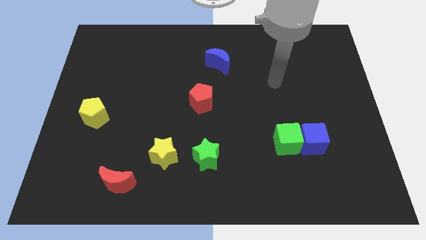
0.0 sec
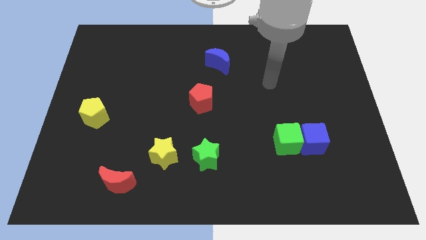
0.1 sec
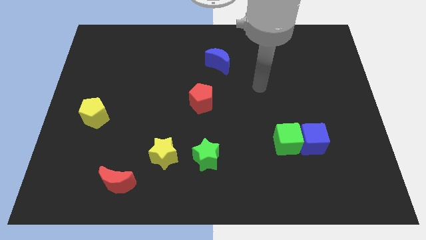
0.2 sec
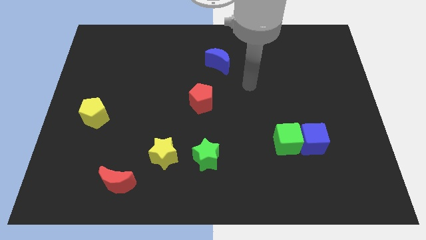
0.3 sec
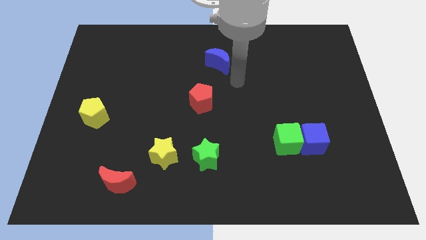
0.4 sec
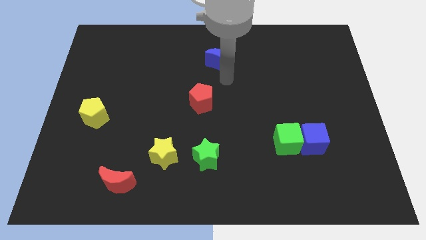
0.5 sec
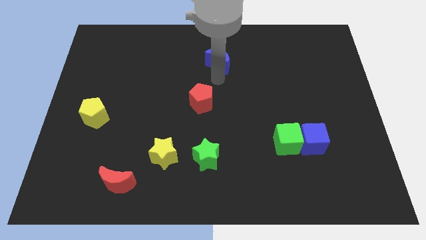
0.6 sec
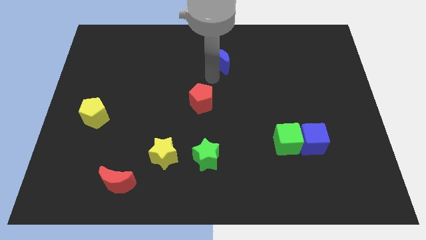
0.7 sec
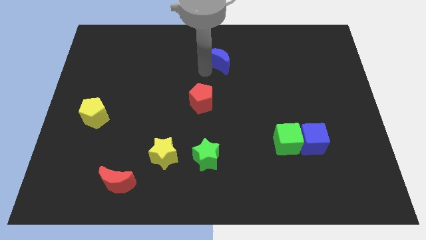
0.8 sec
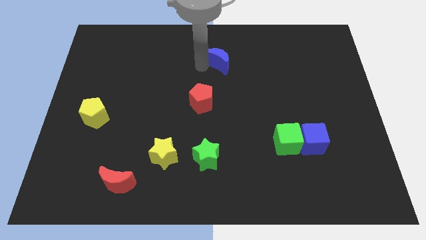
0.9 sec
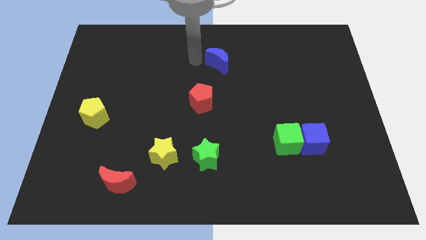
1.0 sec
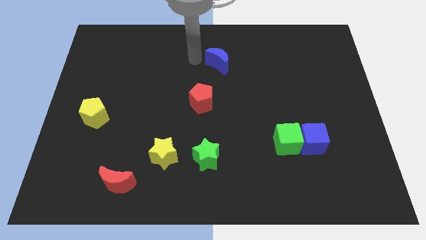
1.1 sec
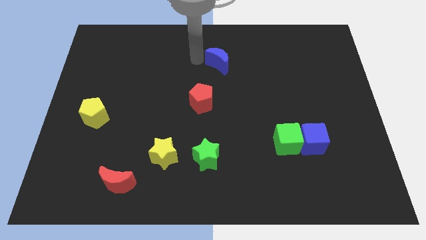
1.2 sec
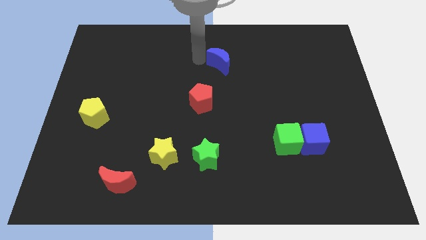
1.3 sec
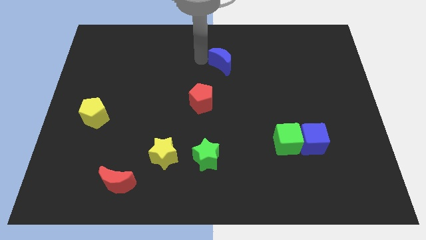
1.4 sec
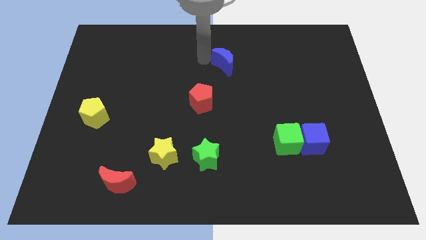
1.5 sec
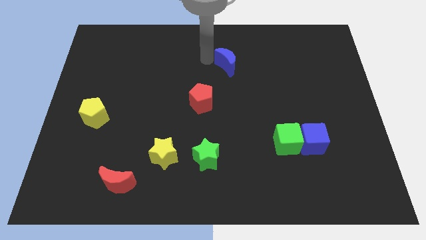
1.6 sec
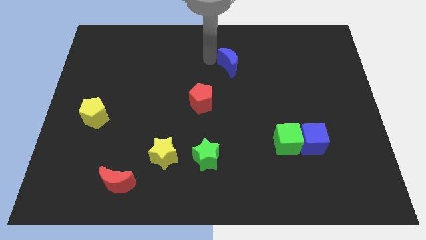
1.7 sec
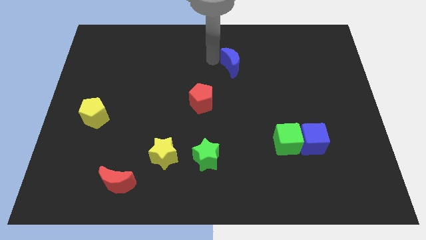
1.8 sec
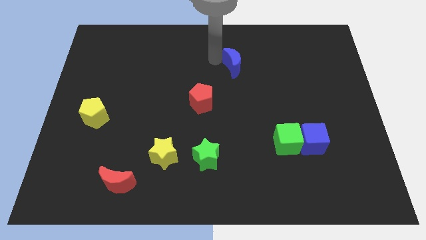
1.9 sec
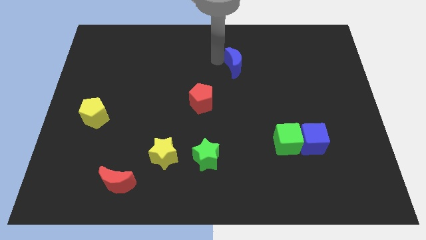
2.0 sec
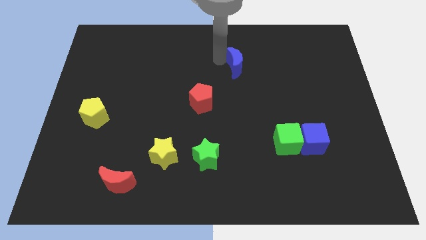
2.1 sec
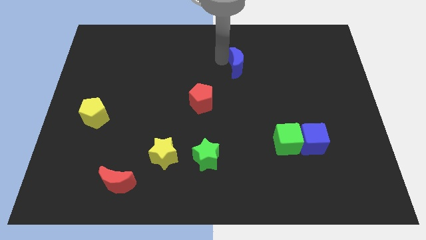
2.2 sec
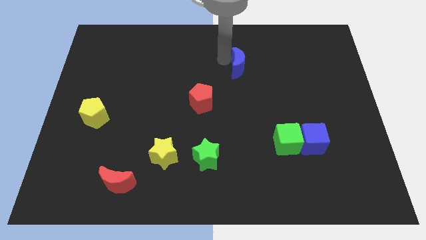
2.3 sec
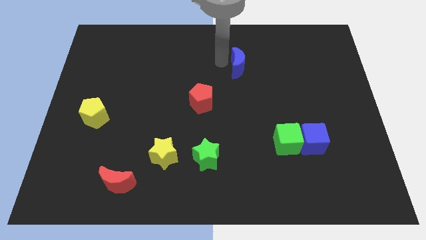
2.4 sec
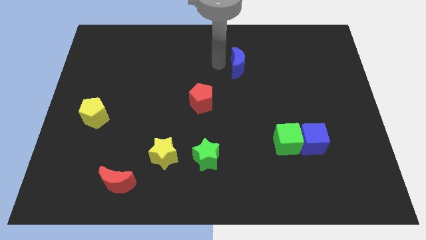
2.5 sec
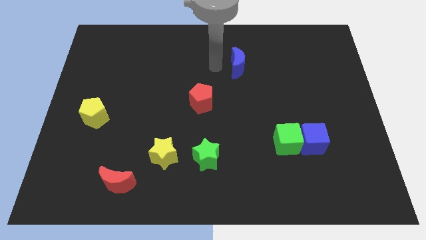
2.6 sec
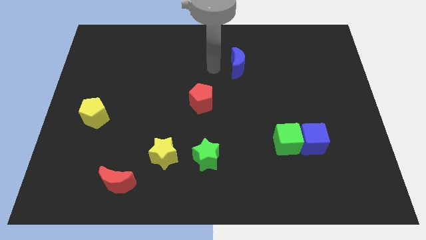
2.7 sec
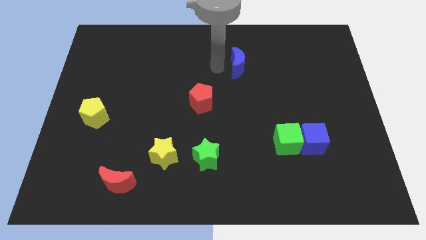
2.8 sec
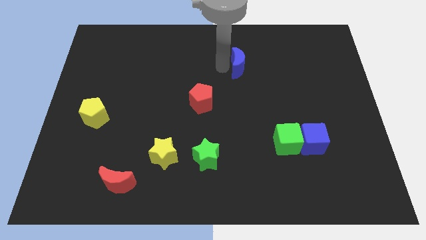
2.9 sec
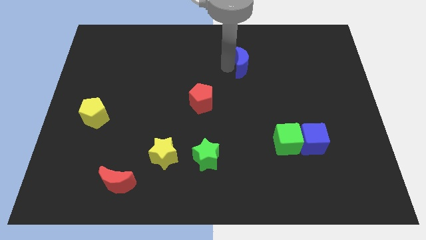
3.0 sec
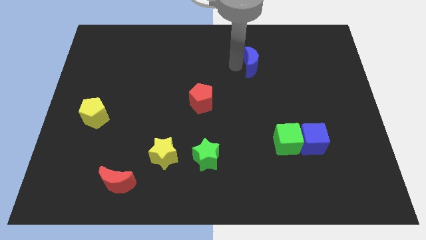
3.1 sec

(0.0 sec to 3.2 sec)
push the blue moon a little to the right

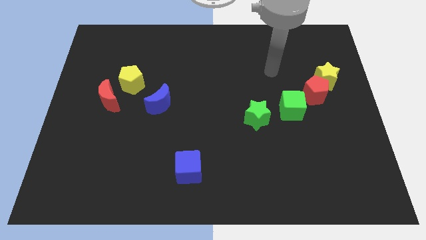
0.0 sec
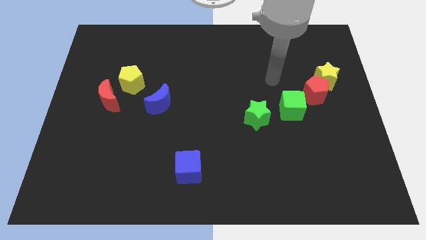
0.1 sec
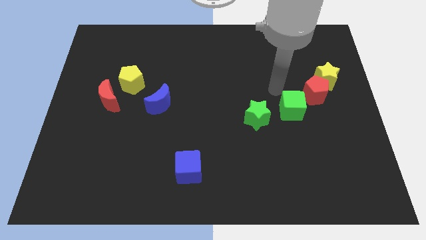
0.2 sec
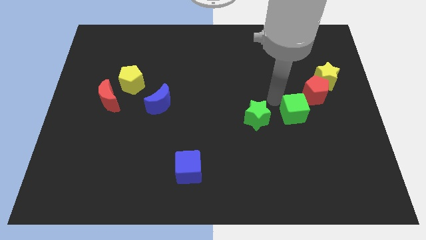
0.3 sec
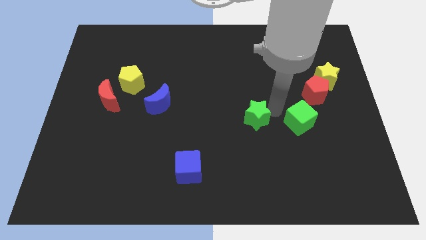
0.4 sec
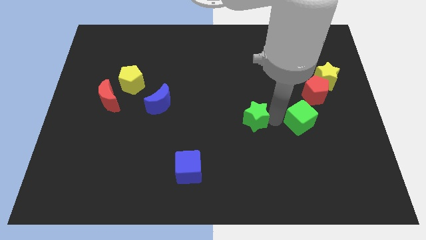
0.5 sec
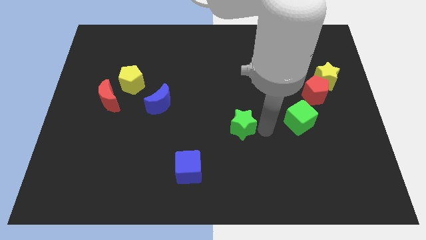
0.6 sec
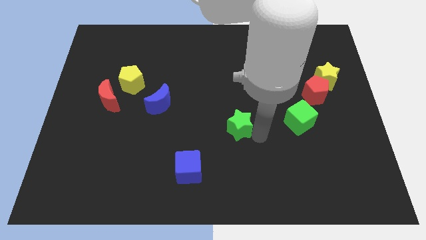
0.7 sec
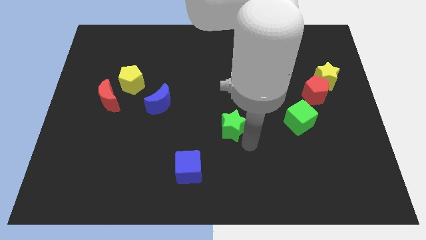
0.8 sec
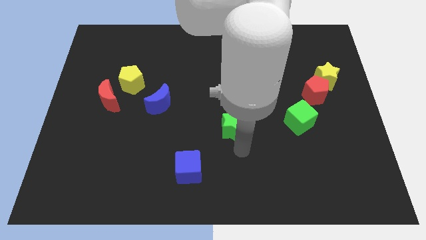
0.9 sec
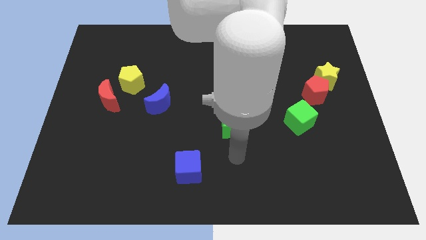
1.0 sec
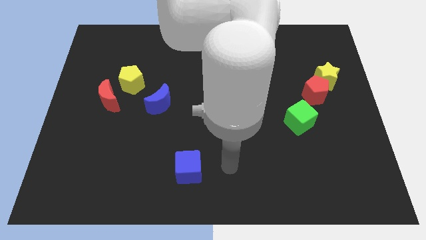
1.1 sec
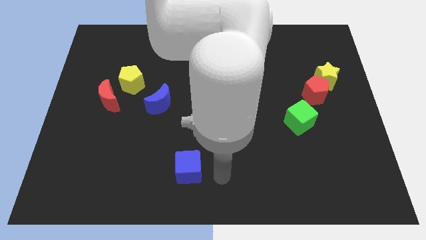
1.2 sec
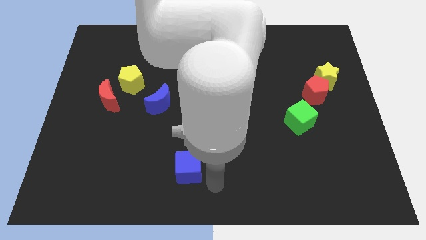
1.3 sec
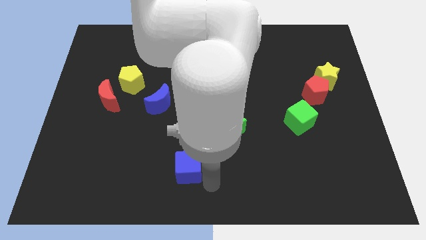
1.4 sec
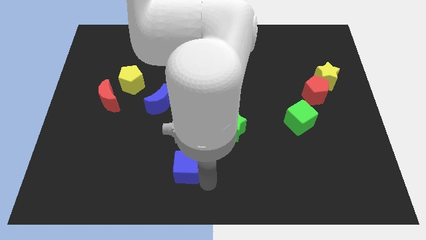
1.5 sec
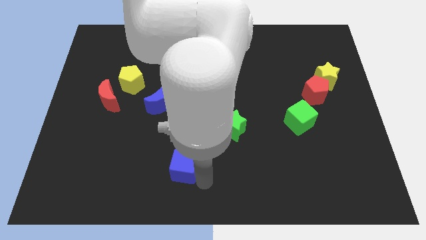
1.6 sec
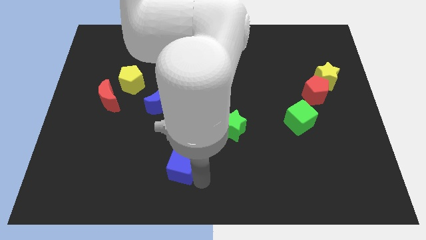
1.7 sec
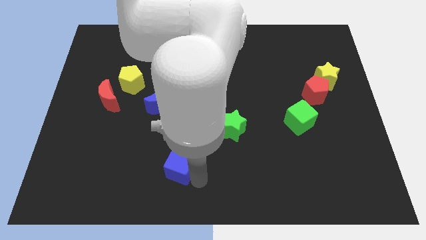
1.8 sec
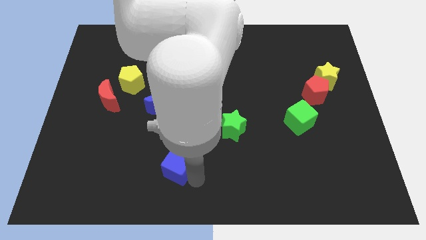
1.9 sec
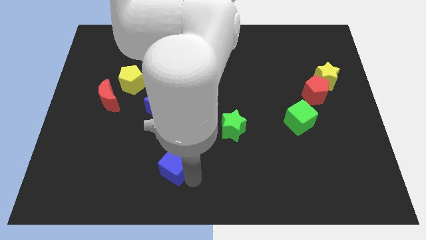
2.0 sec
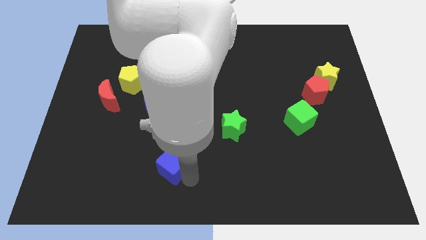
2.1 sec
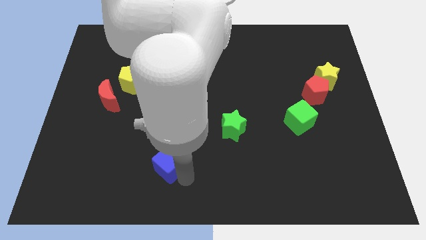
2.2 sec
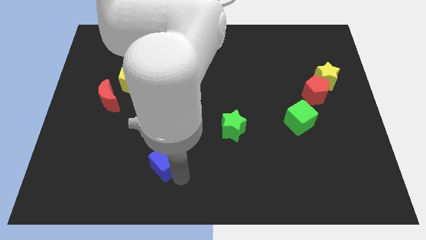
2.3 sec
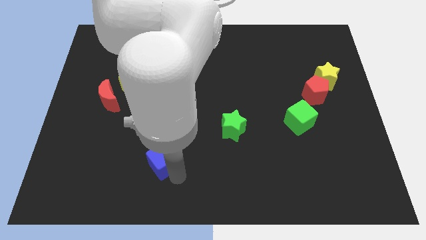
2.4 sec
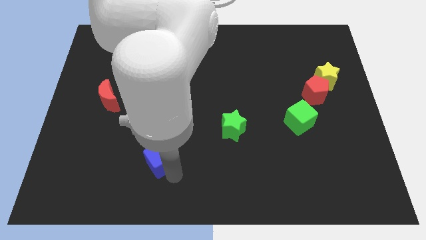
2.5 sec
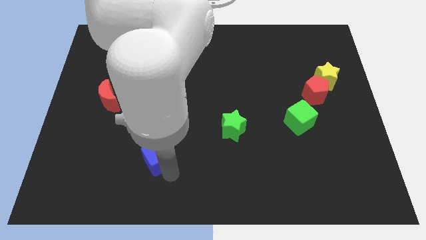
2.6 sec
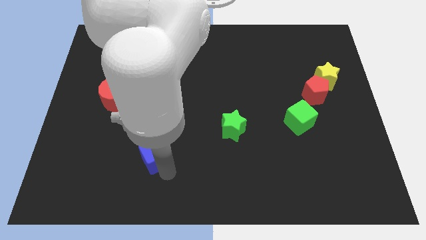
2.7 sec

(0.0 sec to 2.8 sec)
slightly push the blue cube upwards and to the left

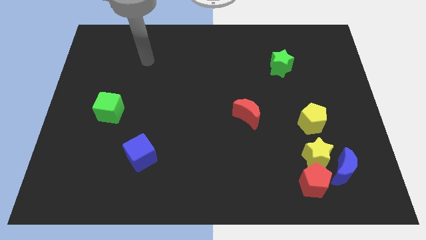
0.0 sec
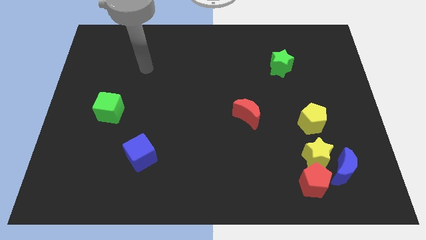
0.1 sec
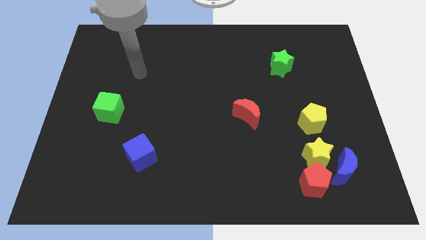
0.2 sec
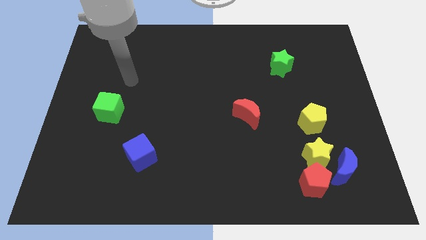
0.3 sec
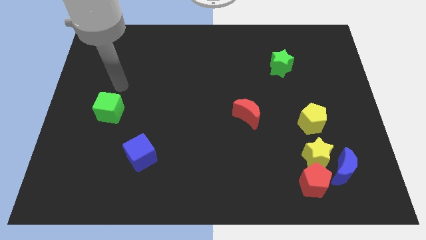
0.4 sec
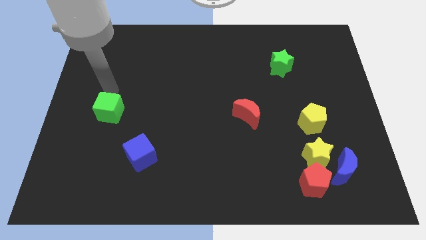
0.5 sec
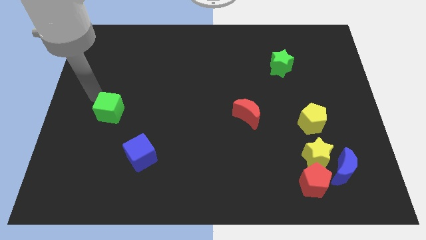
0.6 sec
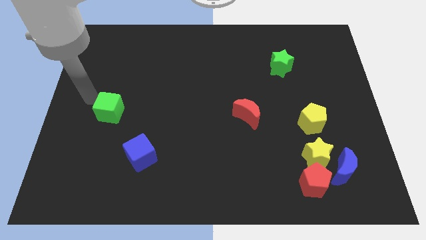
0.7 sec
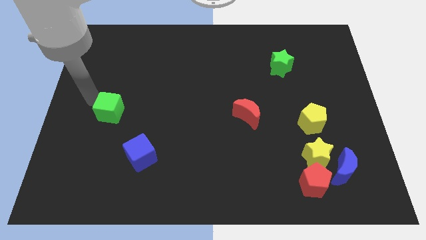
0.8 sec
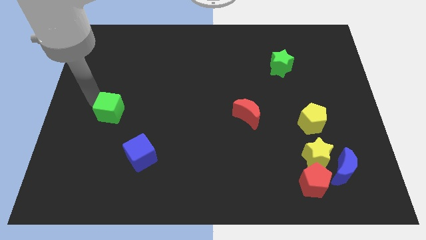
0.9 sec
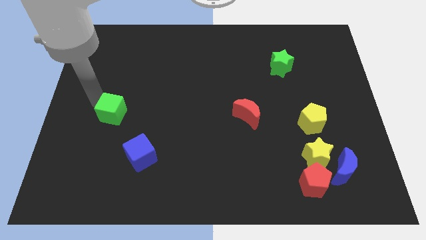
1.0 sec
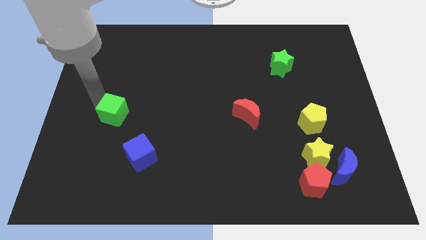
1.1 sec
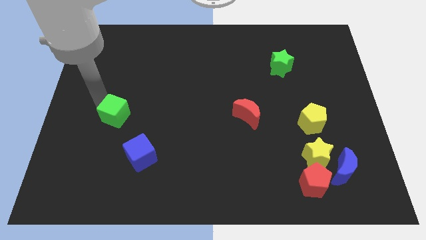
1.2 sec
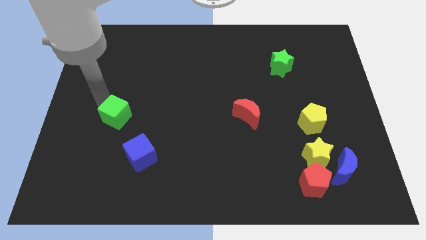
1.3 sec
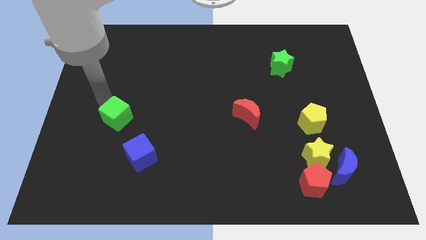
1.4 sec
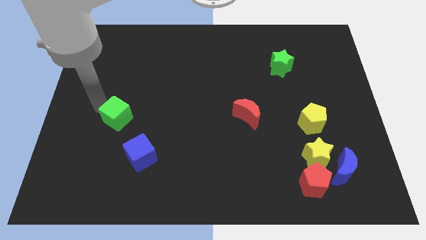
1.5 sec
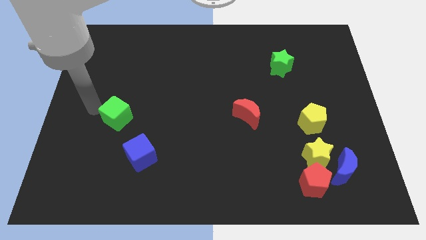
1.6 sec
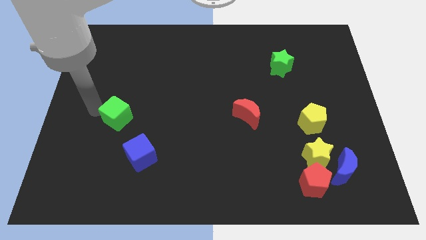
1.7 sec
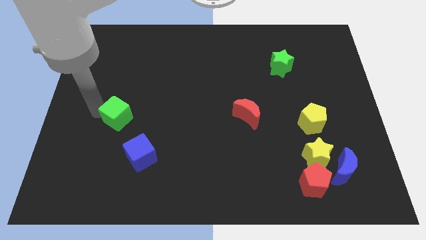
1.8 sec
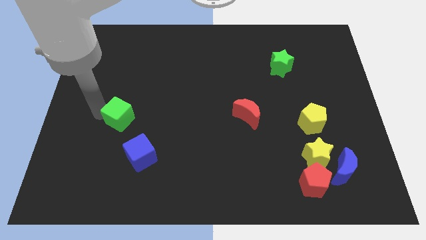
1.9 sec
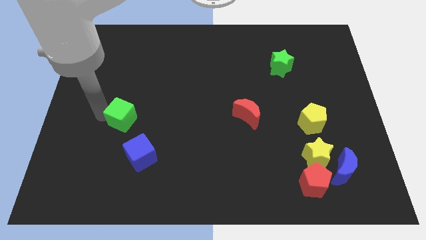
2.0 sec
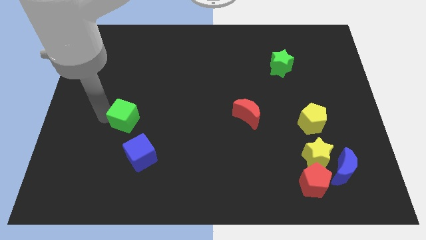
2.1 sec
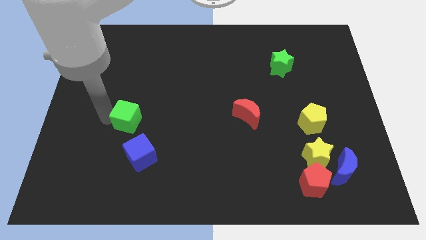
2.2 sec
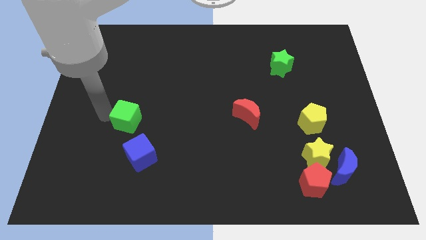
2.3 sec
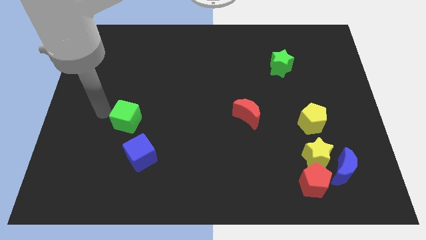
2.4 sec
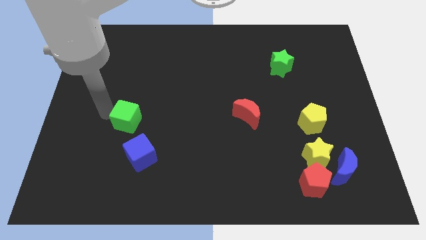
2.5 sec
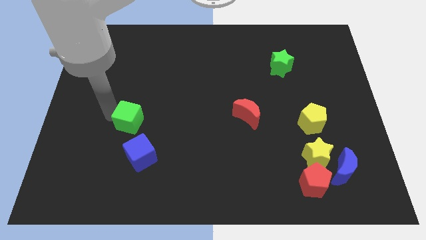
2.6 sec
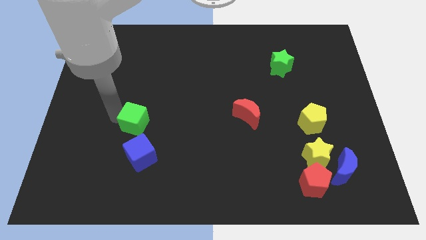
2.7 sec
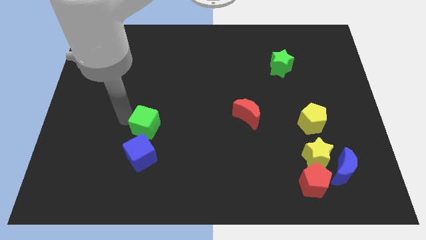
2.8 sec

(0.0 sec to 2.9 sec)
push the green cube slightly downwards and to the right diagonally
